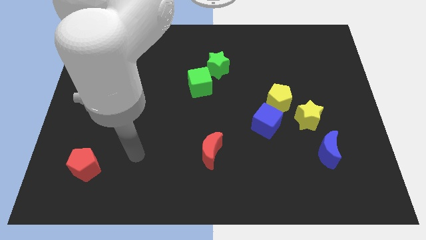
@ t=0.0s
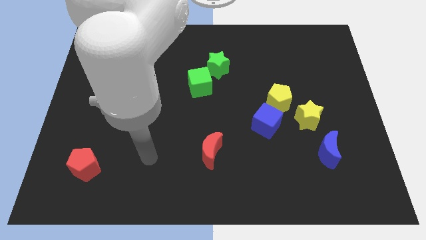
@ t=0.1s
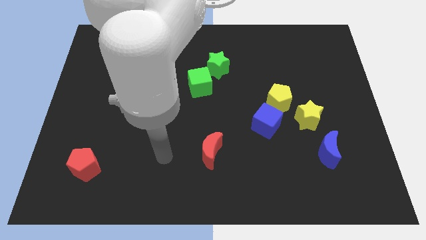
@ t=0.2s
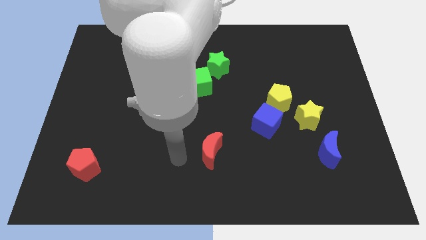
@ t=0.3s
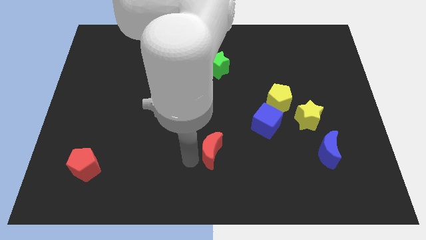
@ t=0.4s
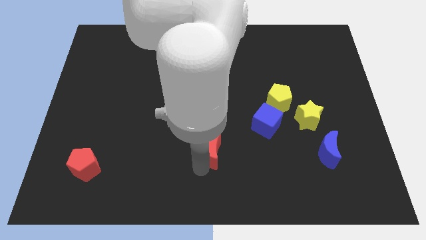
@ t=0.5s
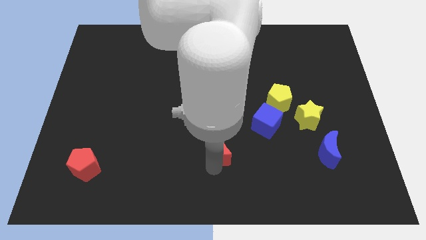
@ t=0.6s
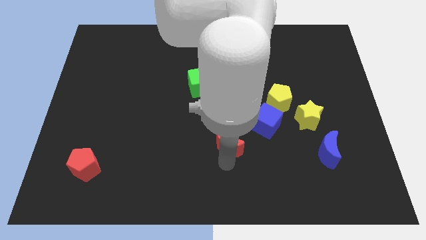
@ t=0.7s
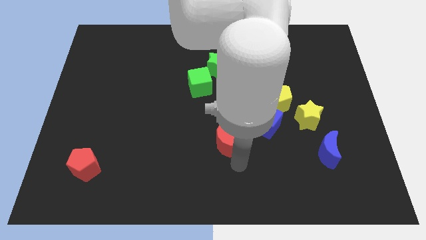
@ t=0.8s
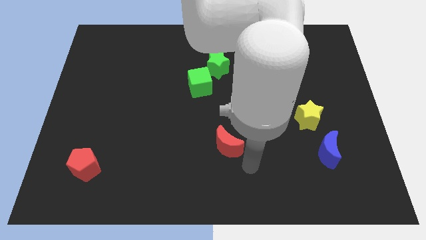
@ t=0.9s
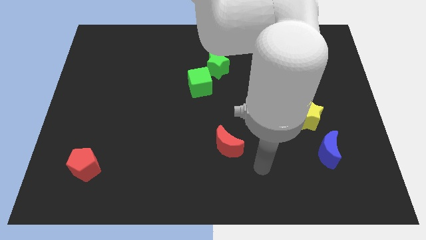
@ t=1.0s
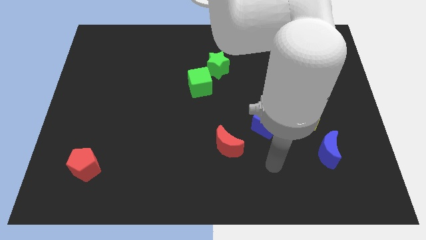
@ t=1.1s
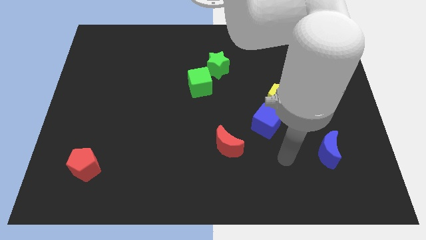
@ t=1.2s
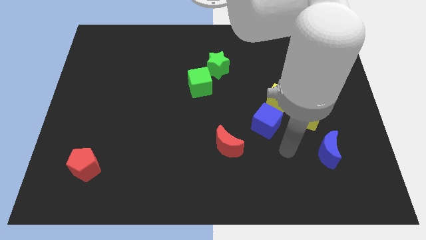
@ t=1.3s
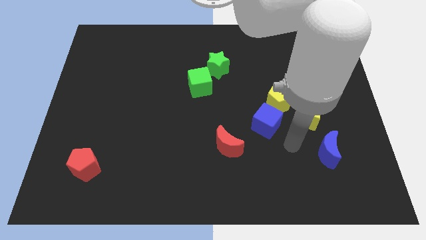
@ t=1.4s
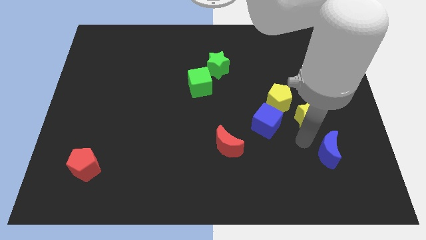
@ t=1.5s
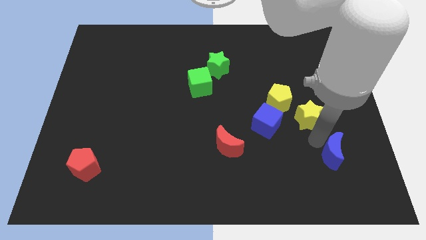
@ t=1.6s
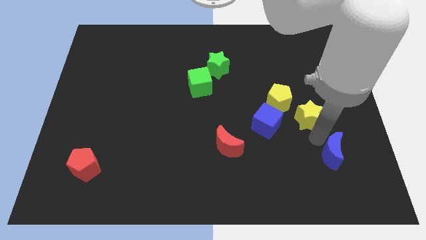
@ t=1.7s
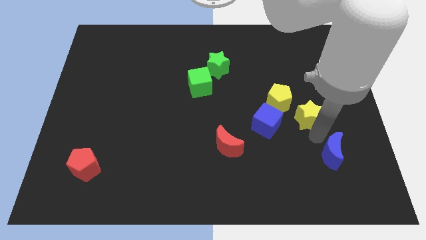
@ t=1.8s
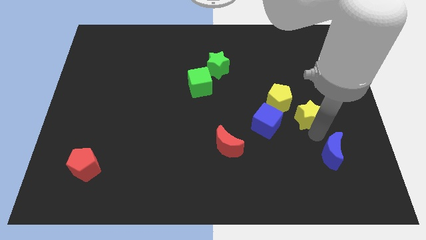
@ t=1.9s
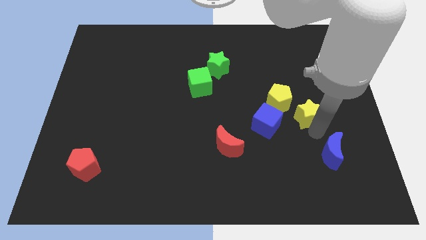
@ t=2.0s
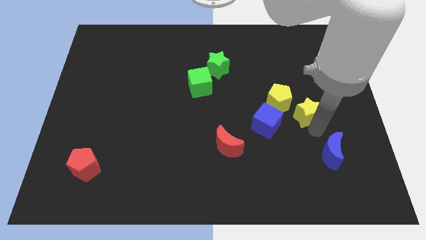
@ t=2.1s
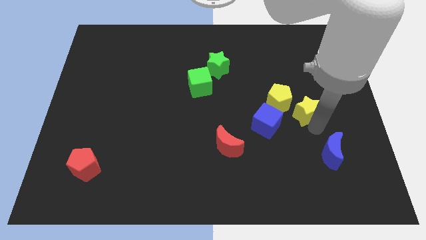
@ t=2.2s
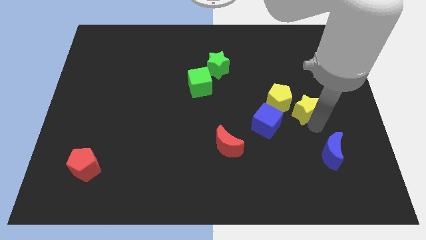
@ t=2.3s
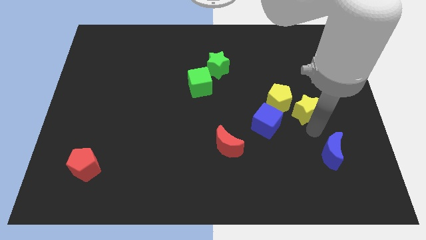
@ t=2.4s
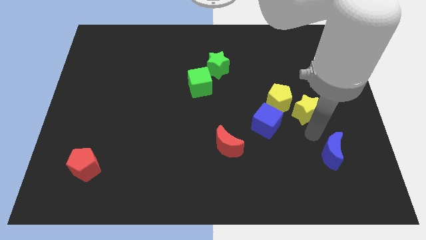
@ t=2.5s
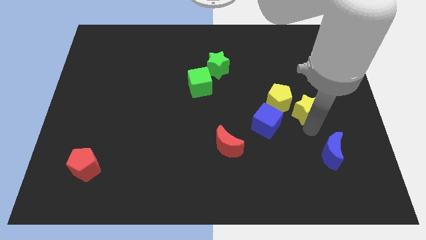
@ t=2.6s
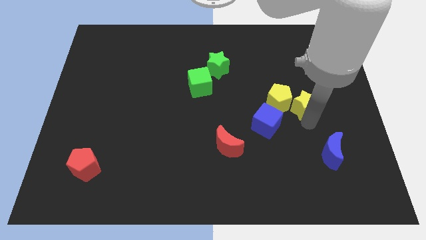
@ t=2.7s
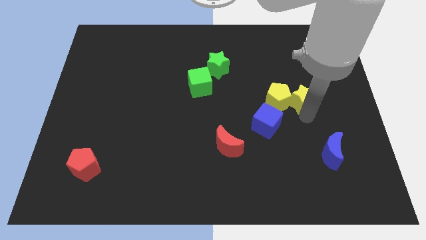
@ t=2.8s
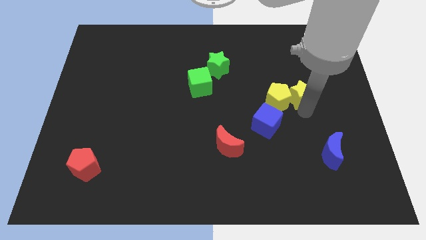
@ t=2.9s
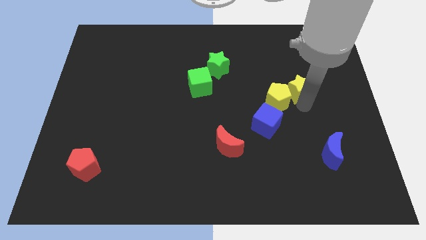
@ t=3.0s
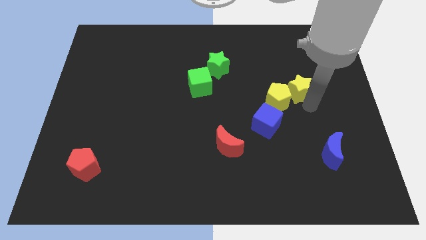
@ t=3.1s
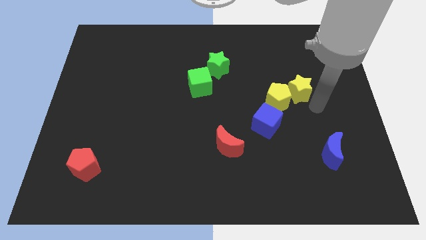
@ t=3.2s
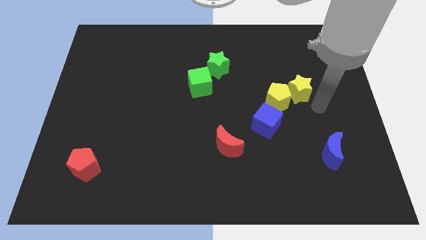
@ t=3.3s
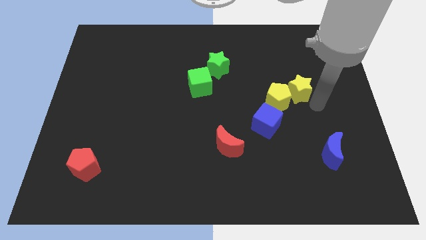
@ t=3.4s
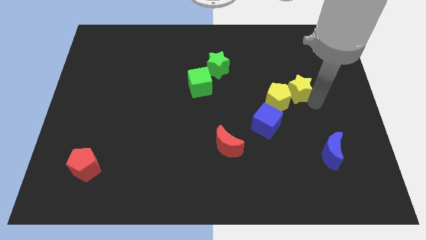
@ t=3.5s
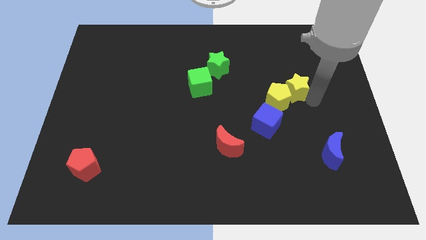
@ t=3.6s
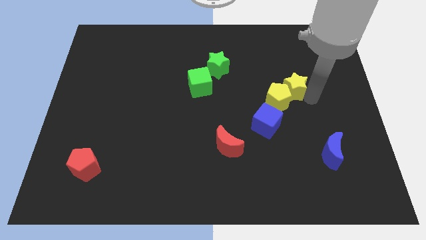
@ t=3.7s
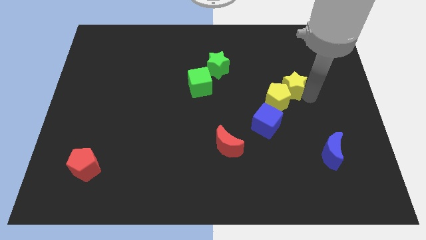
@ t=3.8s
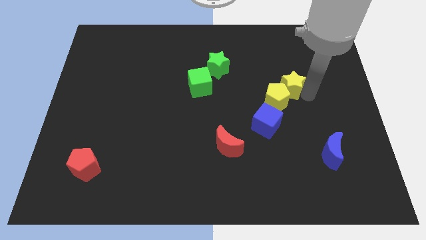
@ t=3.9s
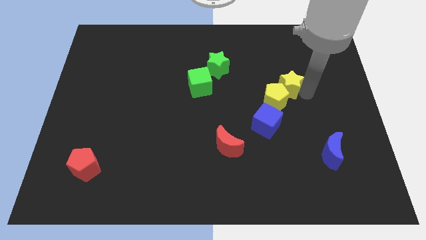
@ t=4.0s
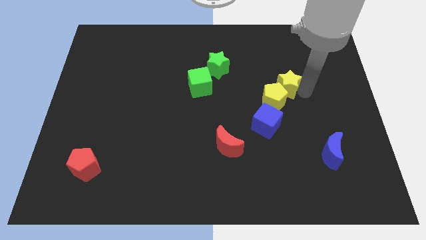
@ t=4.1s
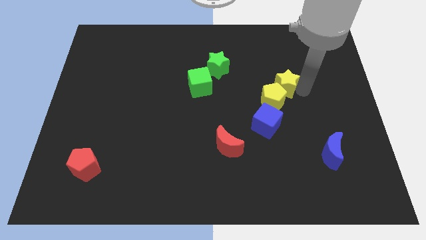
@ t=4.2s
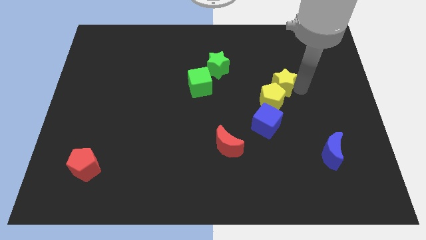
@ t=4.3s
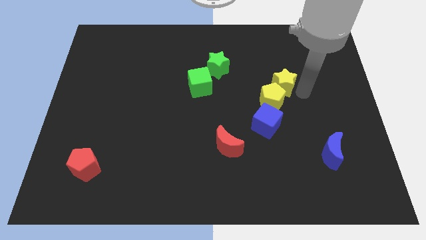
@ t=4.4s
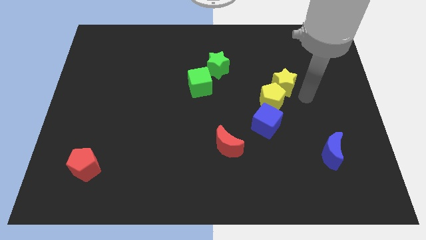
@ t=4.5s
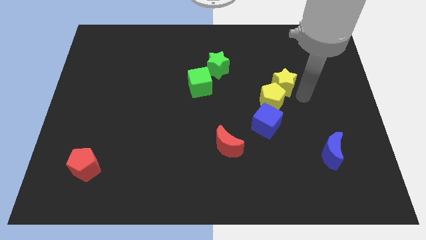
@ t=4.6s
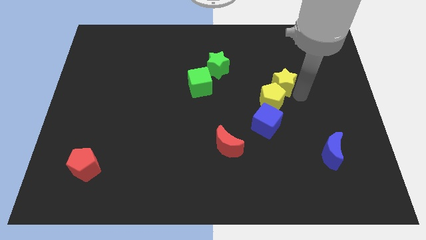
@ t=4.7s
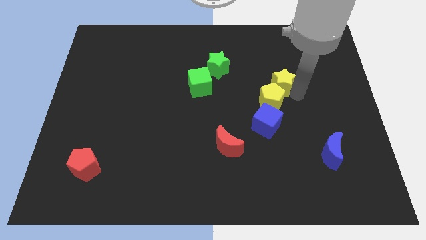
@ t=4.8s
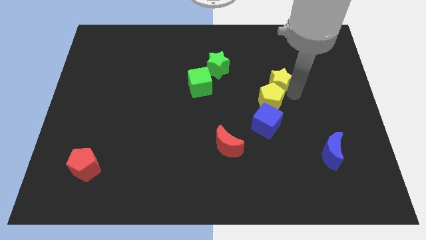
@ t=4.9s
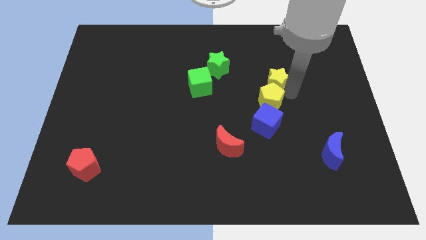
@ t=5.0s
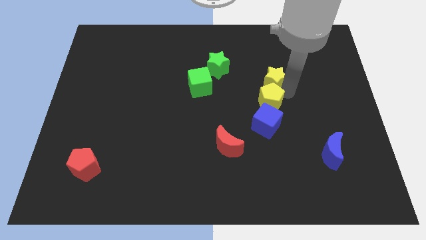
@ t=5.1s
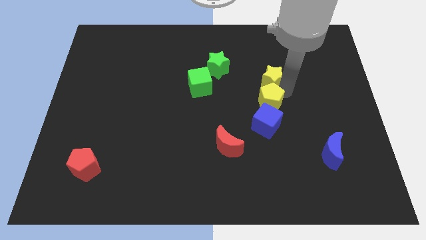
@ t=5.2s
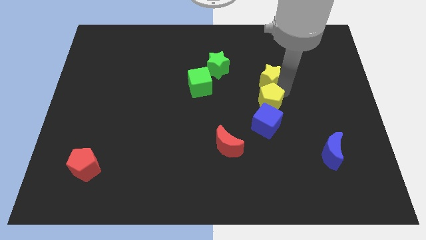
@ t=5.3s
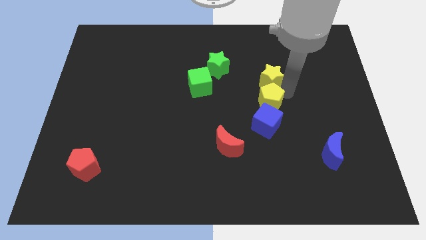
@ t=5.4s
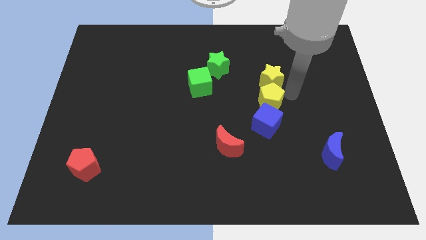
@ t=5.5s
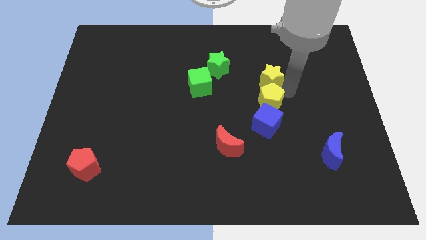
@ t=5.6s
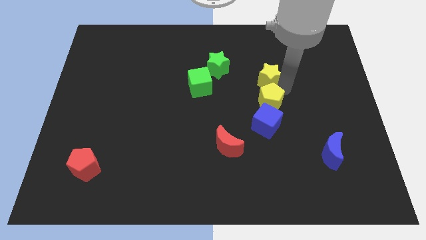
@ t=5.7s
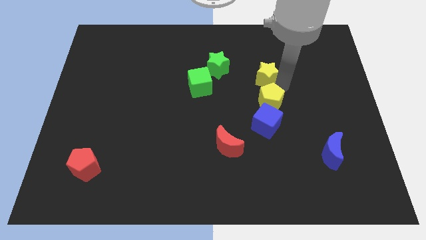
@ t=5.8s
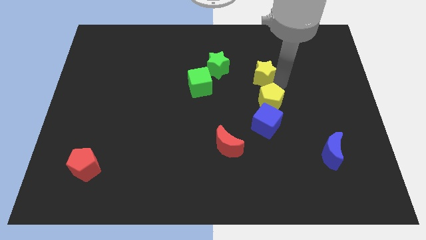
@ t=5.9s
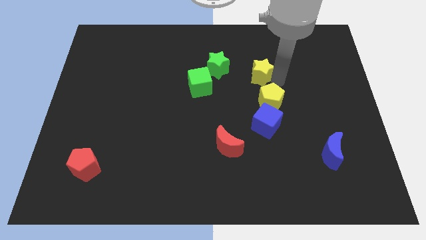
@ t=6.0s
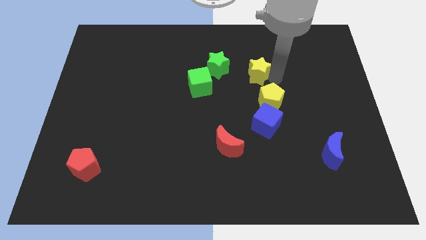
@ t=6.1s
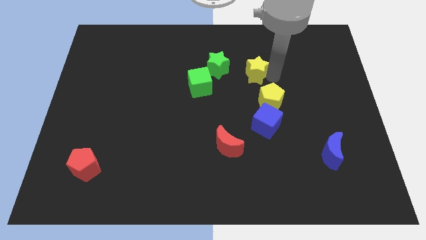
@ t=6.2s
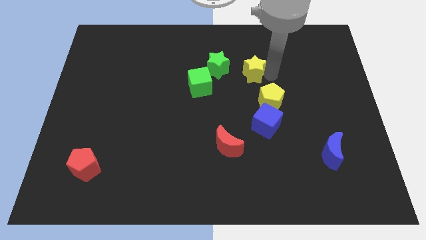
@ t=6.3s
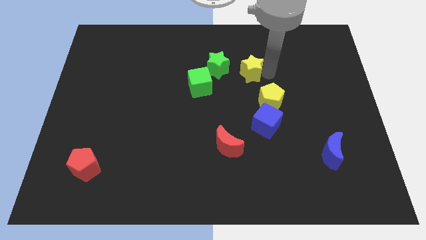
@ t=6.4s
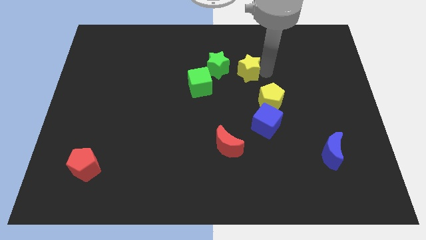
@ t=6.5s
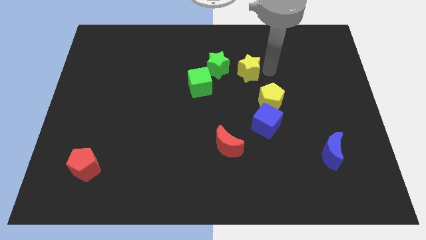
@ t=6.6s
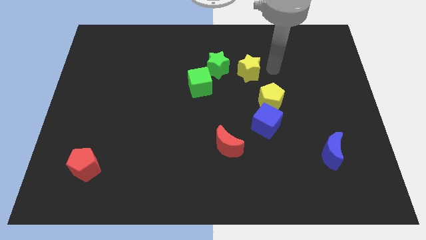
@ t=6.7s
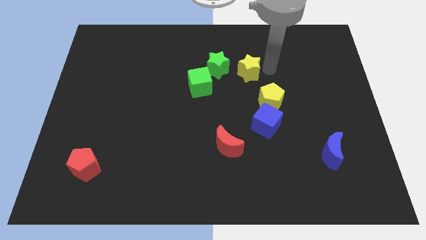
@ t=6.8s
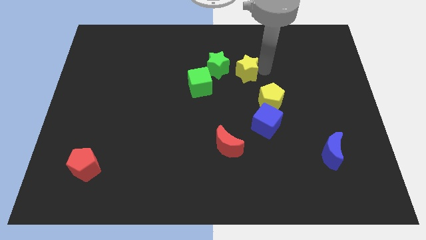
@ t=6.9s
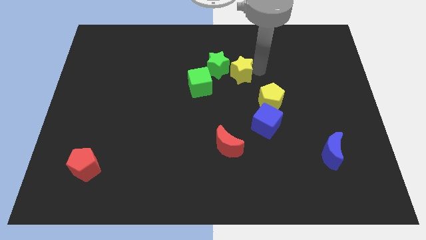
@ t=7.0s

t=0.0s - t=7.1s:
move the yellow star next to the green star

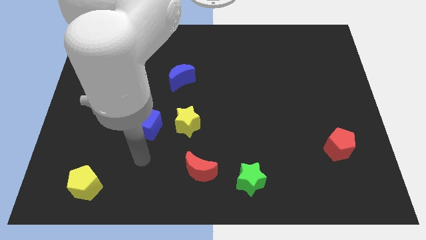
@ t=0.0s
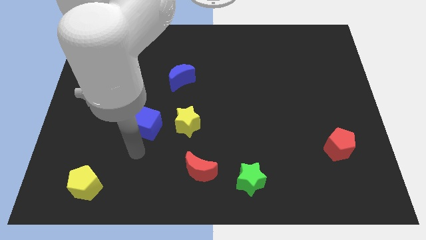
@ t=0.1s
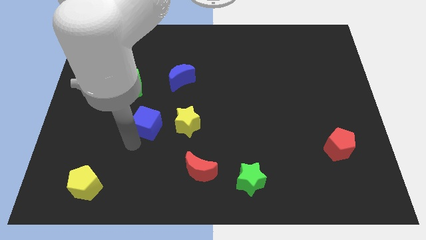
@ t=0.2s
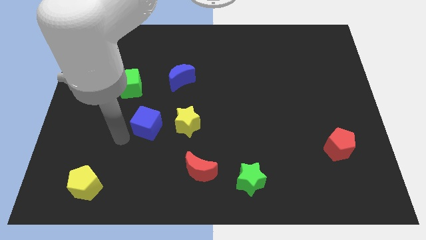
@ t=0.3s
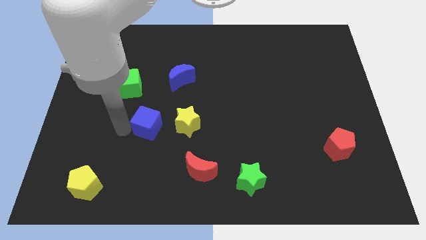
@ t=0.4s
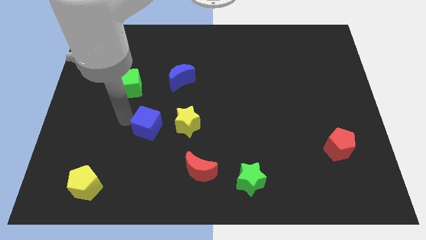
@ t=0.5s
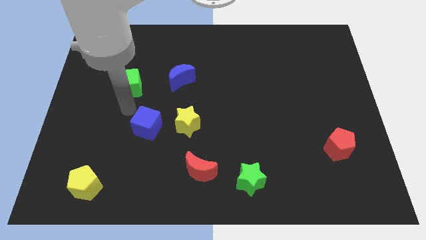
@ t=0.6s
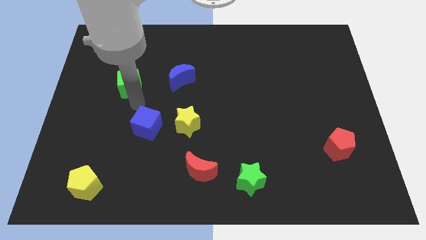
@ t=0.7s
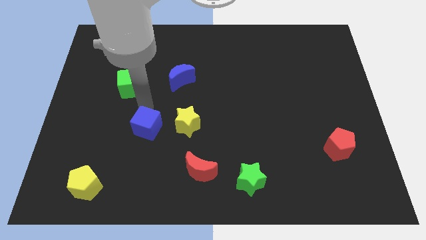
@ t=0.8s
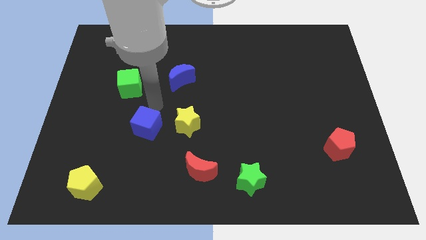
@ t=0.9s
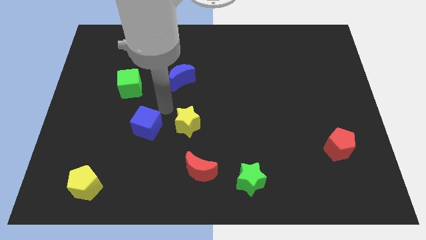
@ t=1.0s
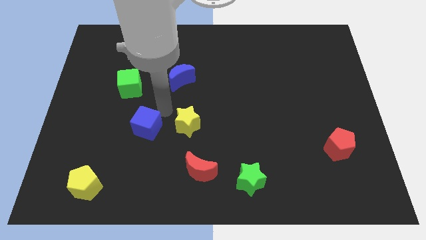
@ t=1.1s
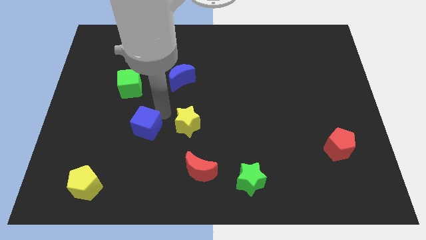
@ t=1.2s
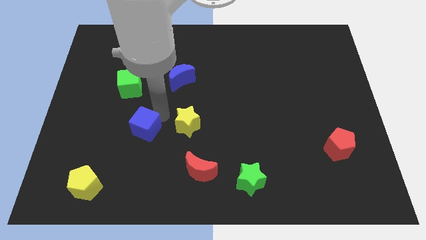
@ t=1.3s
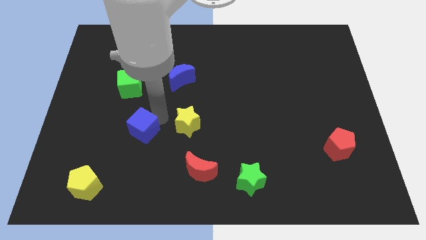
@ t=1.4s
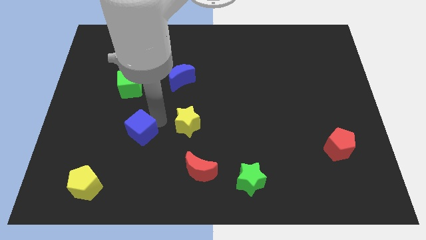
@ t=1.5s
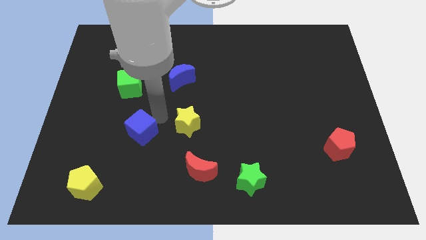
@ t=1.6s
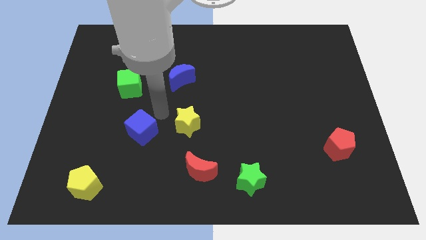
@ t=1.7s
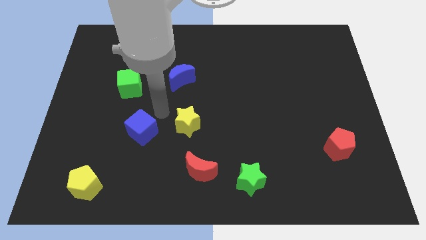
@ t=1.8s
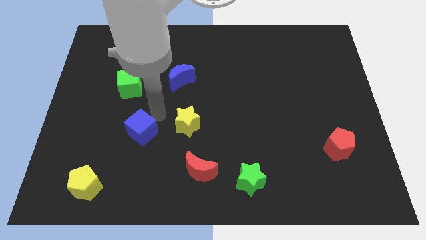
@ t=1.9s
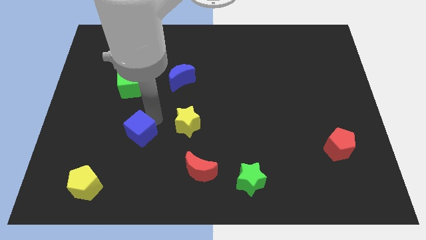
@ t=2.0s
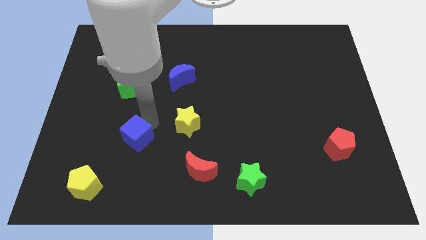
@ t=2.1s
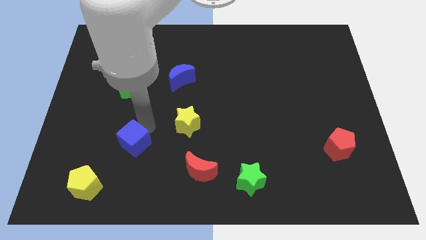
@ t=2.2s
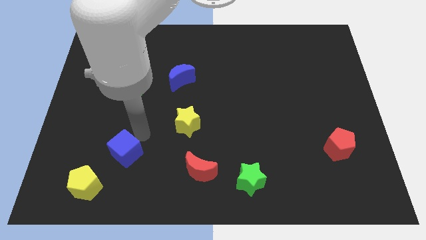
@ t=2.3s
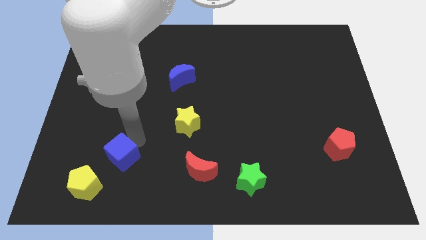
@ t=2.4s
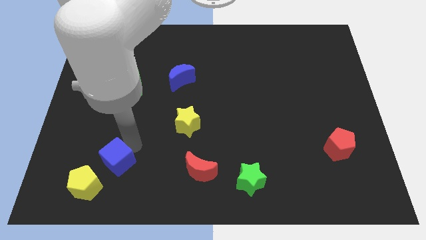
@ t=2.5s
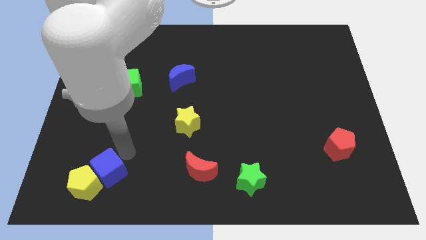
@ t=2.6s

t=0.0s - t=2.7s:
put the blue cube next to the yellow pentagon
